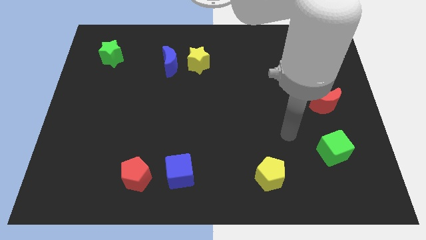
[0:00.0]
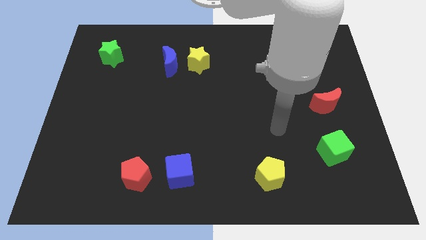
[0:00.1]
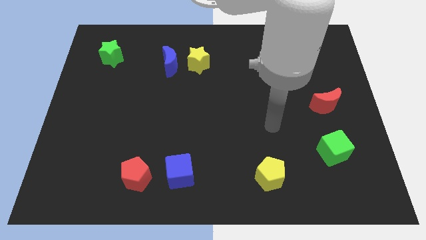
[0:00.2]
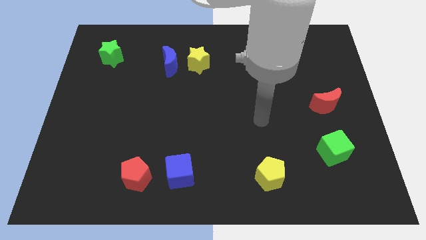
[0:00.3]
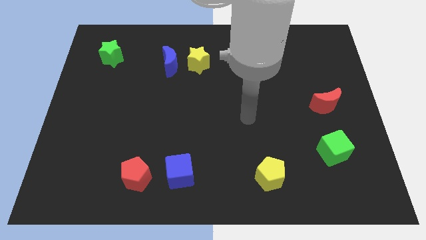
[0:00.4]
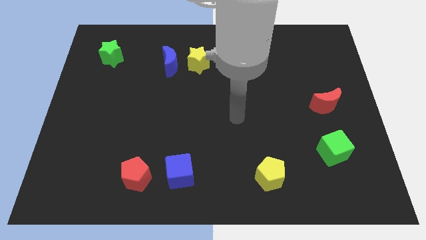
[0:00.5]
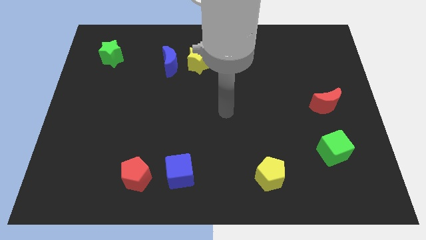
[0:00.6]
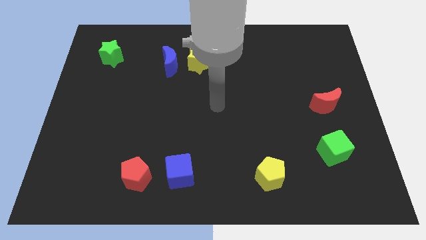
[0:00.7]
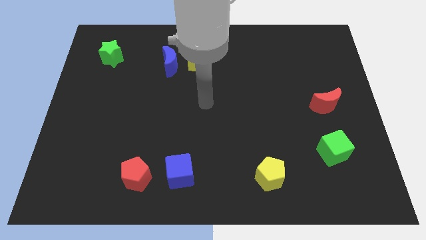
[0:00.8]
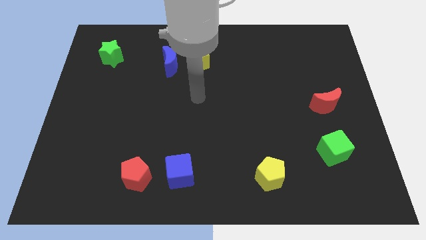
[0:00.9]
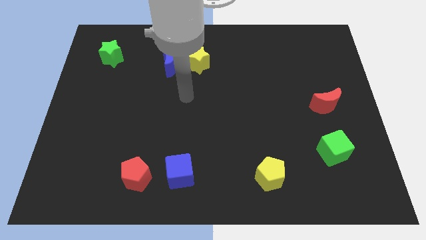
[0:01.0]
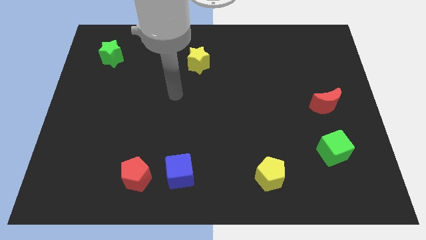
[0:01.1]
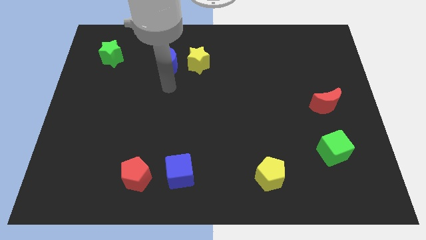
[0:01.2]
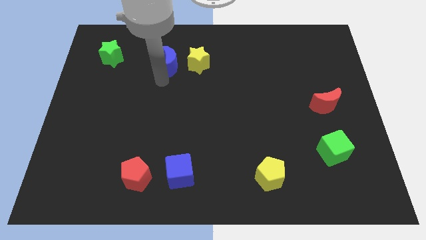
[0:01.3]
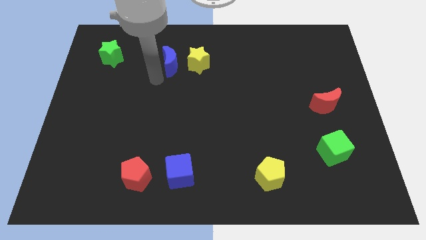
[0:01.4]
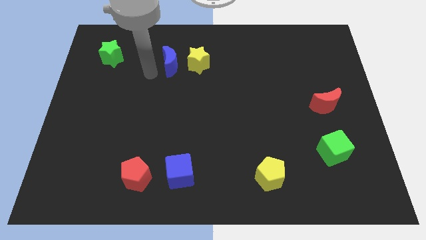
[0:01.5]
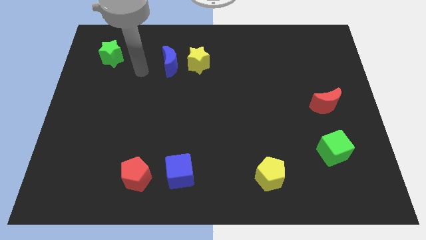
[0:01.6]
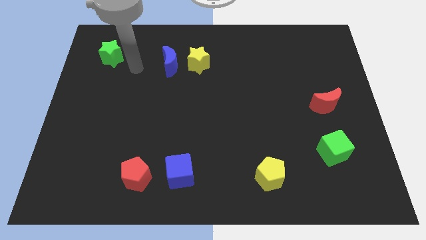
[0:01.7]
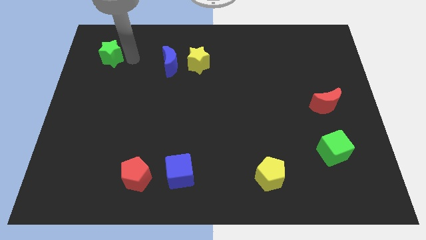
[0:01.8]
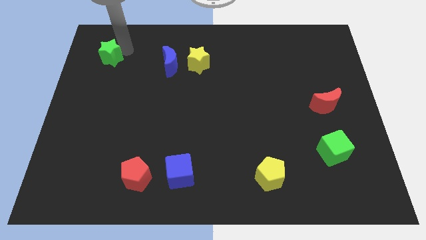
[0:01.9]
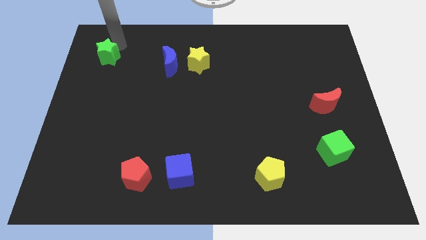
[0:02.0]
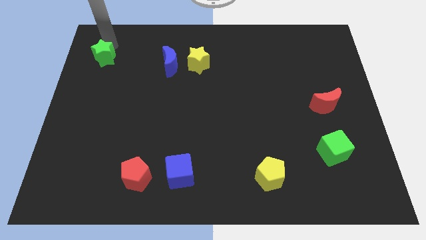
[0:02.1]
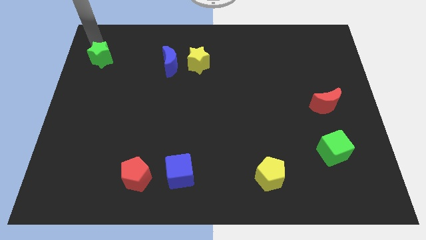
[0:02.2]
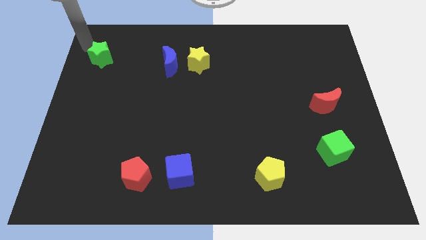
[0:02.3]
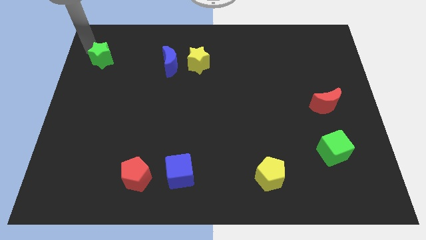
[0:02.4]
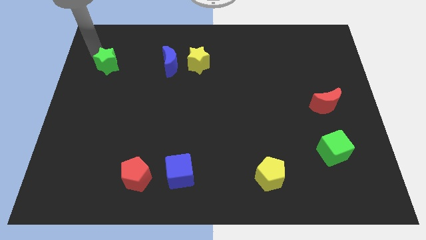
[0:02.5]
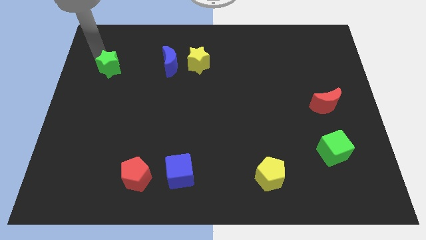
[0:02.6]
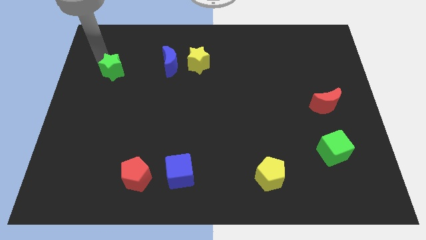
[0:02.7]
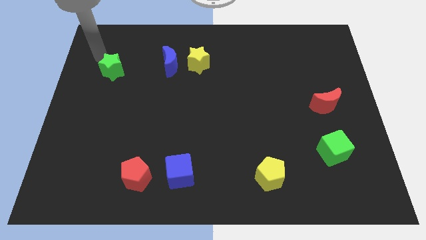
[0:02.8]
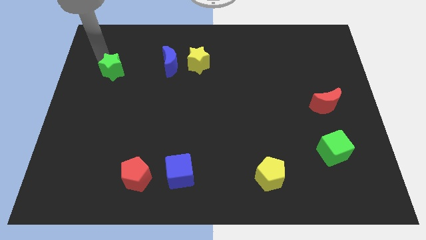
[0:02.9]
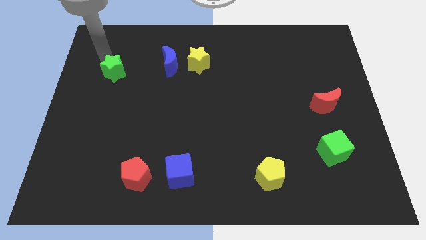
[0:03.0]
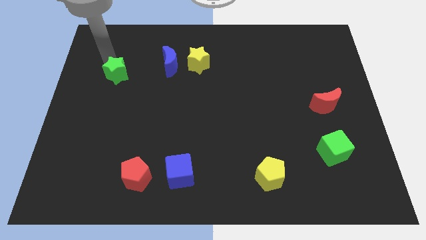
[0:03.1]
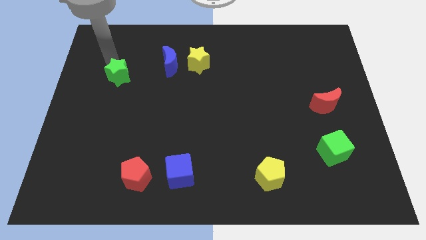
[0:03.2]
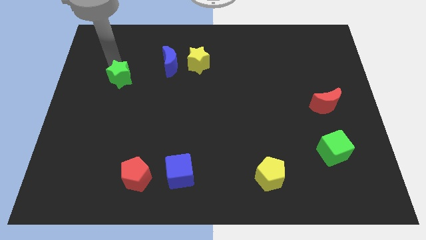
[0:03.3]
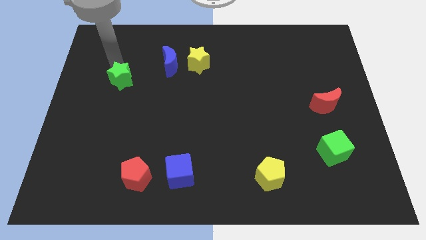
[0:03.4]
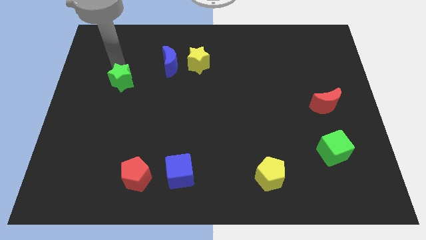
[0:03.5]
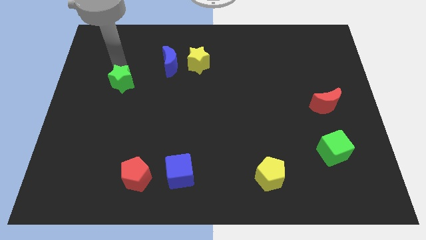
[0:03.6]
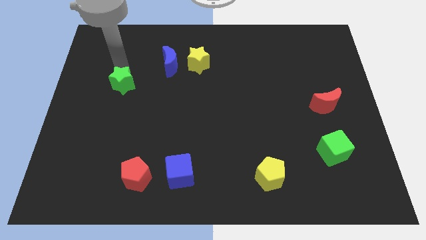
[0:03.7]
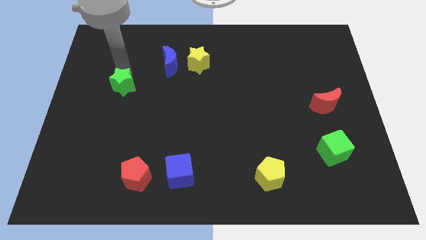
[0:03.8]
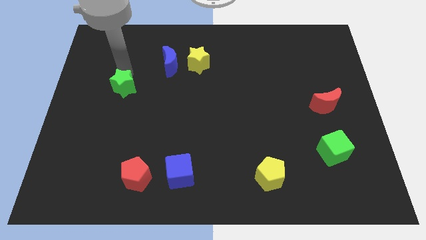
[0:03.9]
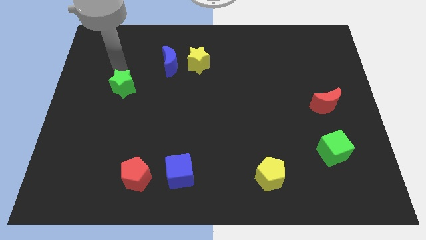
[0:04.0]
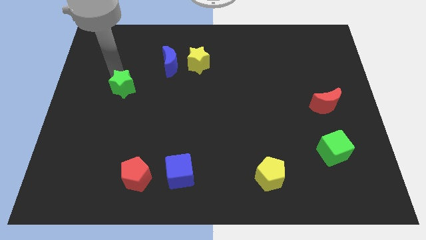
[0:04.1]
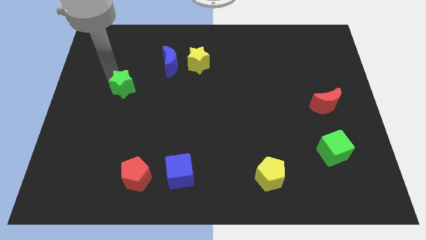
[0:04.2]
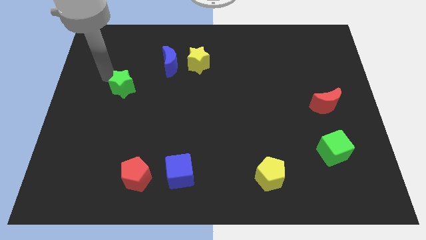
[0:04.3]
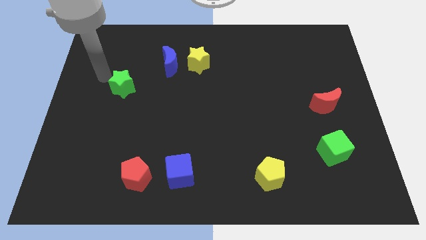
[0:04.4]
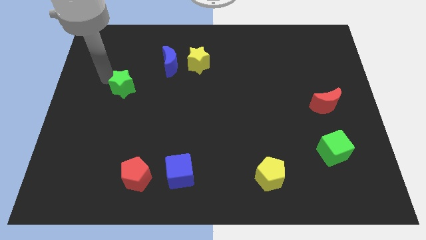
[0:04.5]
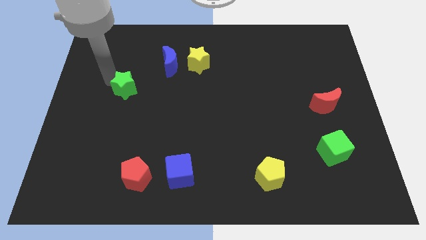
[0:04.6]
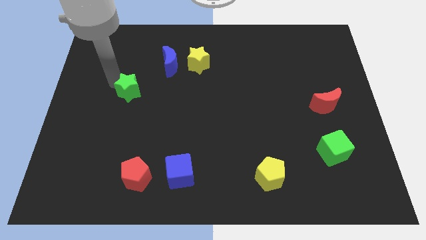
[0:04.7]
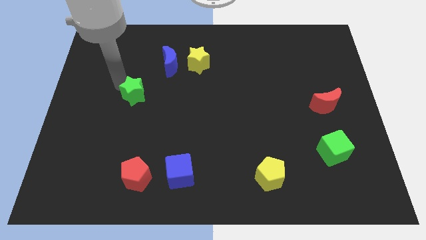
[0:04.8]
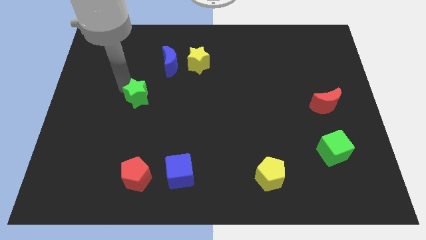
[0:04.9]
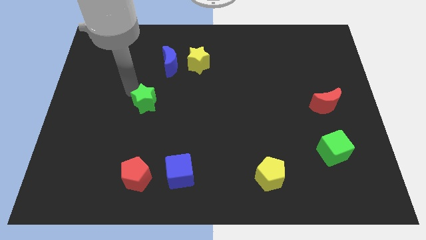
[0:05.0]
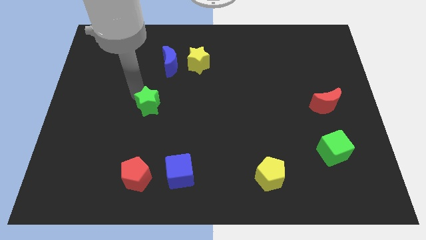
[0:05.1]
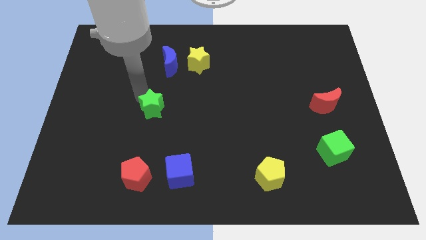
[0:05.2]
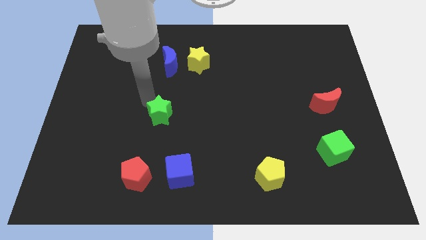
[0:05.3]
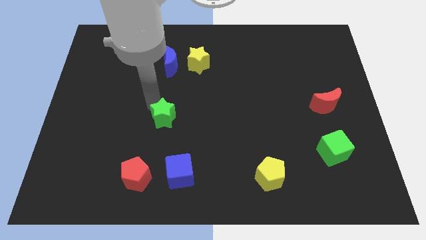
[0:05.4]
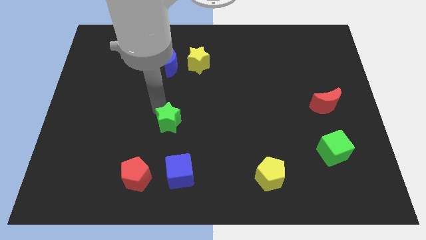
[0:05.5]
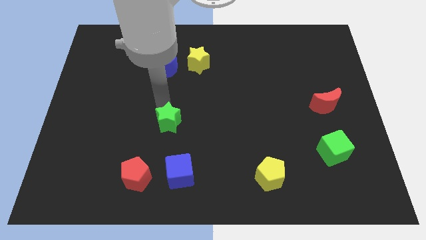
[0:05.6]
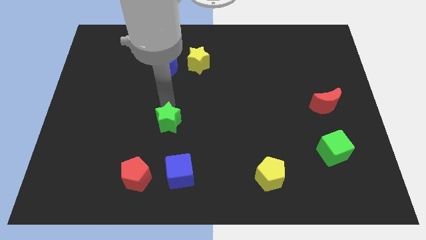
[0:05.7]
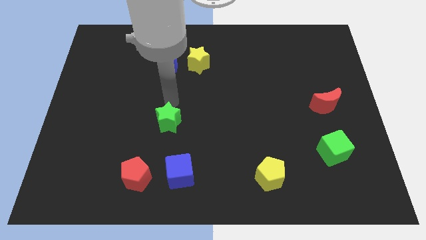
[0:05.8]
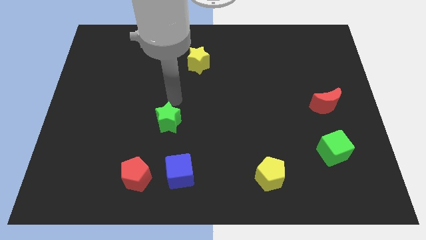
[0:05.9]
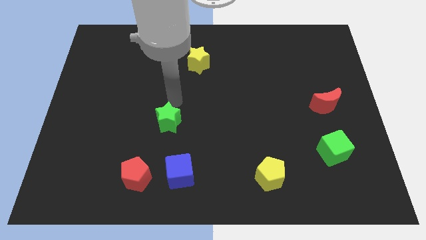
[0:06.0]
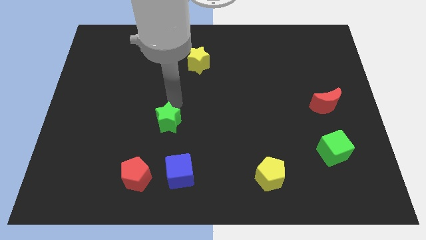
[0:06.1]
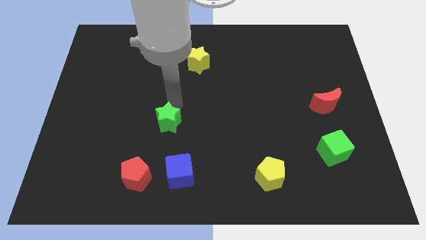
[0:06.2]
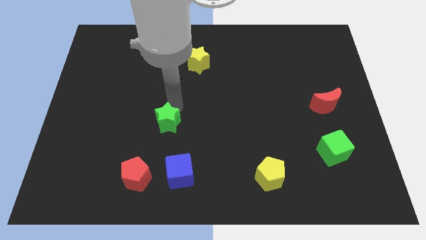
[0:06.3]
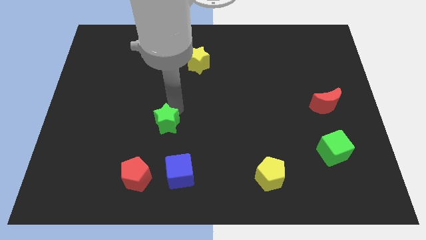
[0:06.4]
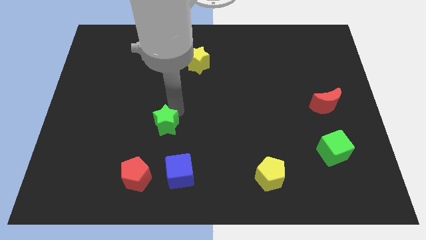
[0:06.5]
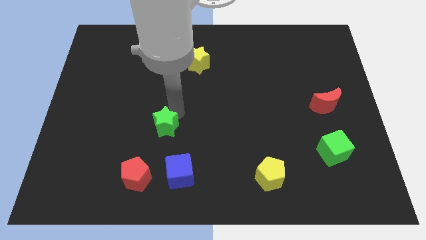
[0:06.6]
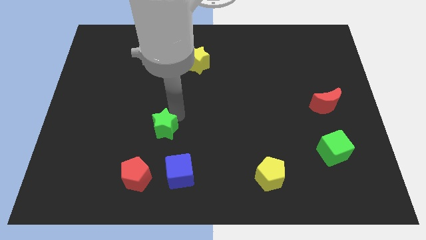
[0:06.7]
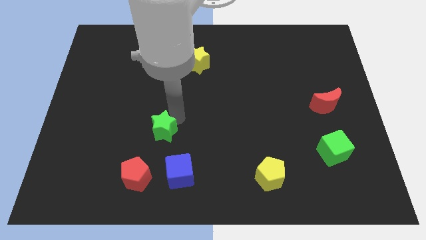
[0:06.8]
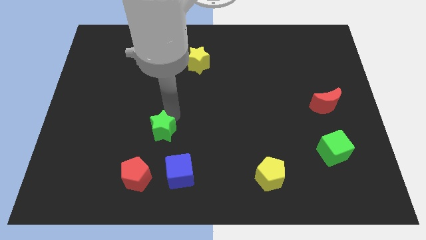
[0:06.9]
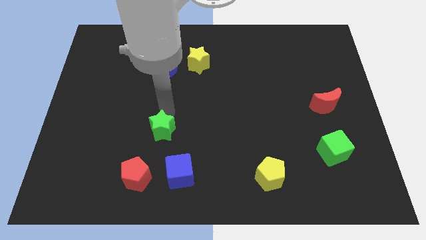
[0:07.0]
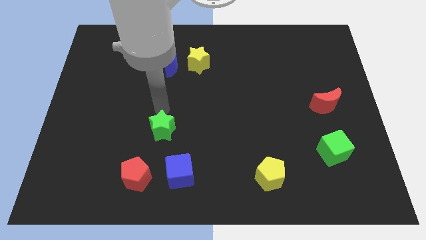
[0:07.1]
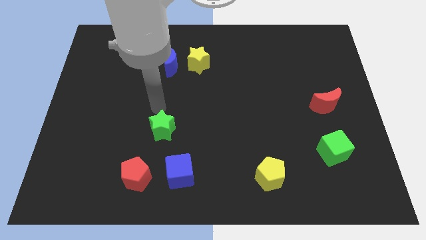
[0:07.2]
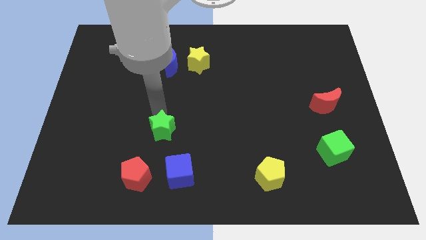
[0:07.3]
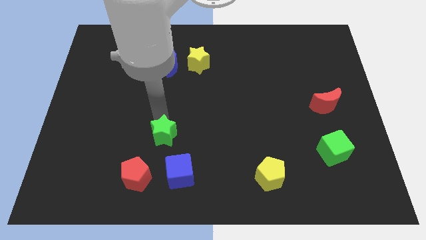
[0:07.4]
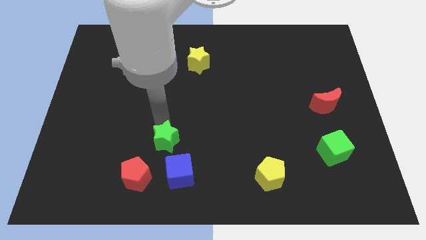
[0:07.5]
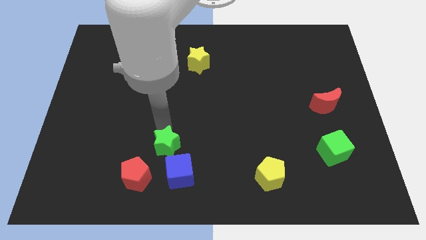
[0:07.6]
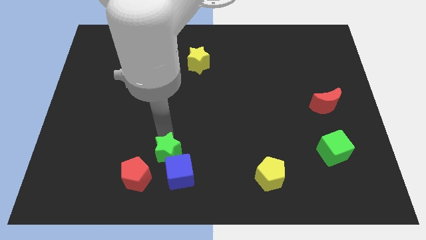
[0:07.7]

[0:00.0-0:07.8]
push the green star to the blue cube
